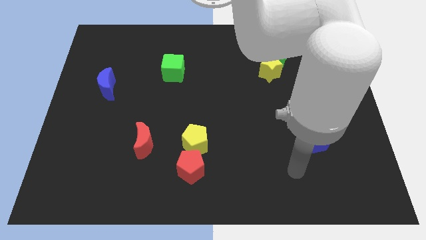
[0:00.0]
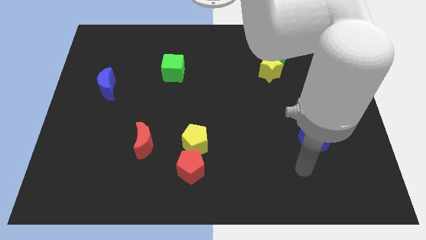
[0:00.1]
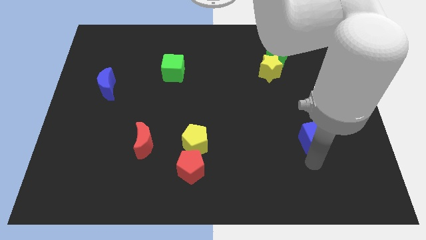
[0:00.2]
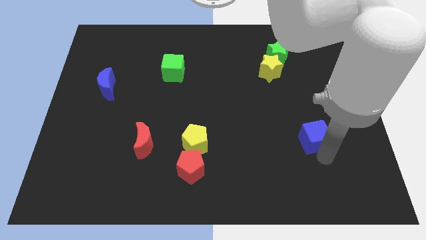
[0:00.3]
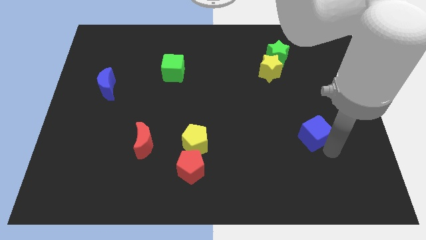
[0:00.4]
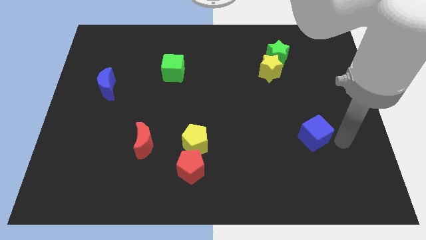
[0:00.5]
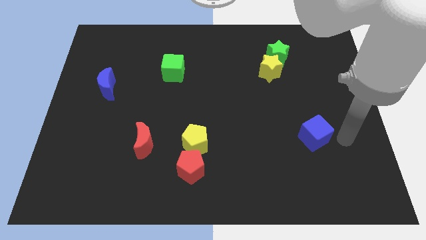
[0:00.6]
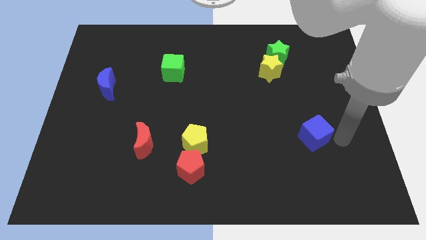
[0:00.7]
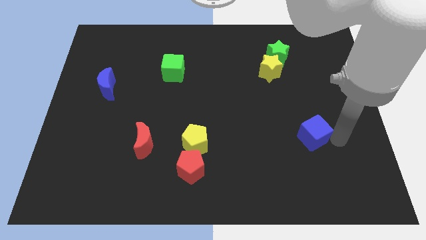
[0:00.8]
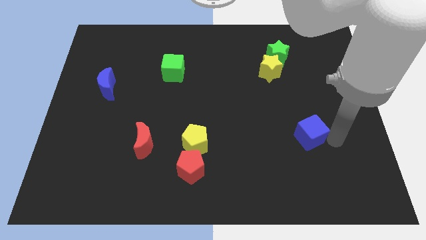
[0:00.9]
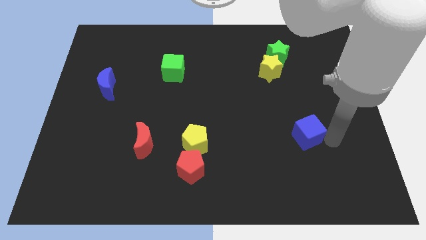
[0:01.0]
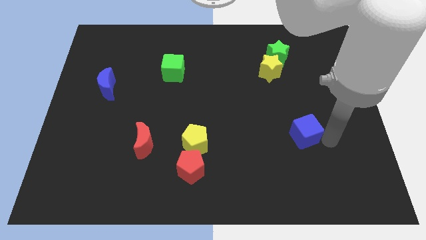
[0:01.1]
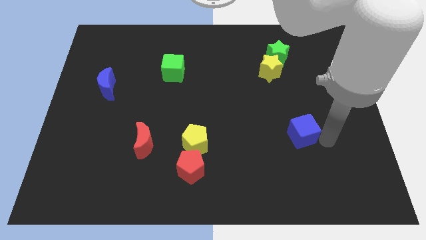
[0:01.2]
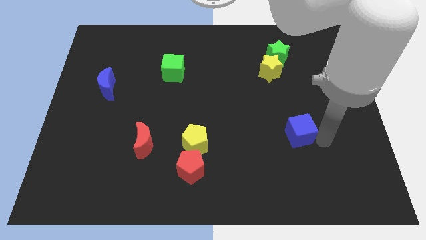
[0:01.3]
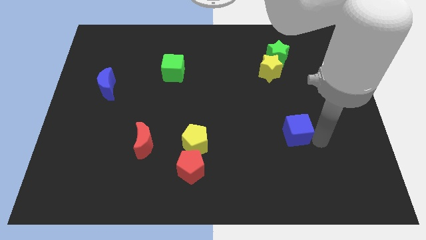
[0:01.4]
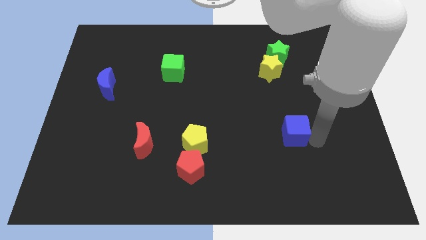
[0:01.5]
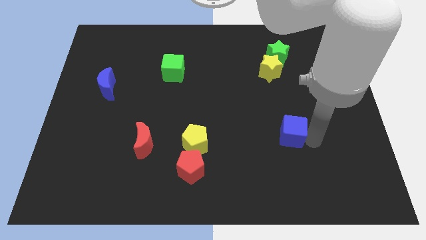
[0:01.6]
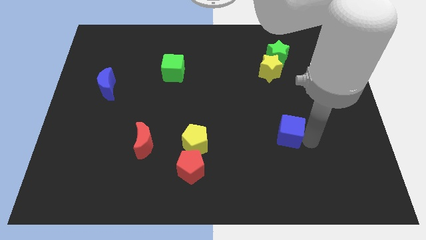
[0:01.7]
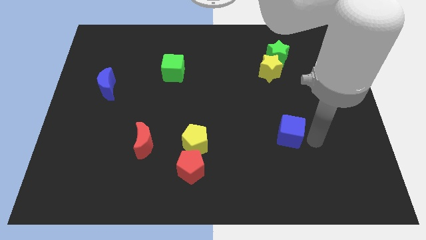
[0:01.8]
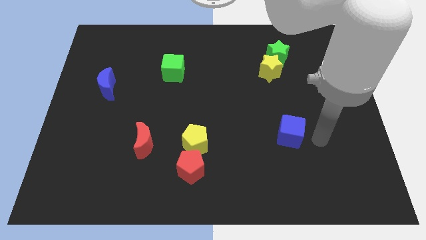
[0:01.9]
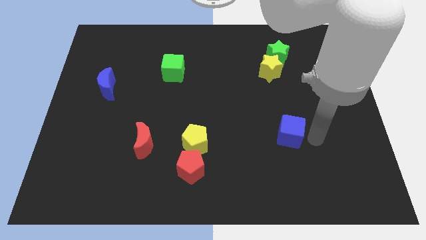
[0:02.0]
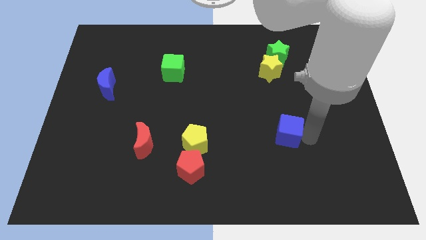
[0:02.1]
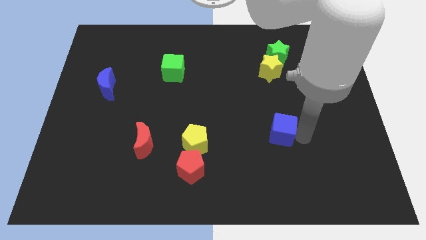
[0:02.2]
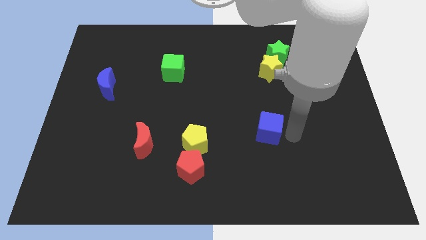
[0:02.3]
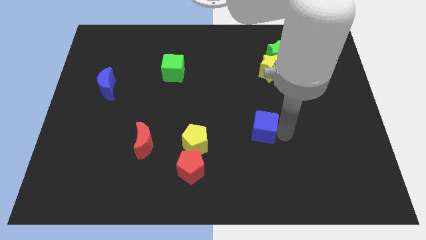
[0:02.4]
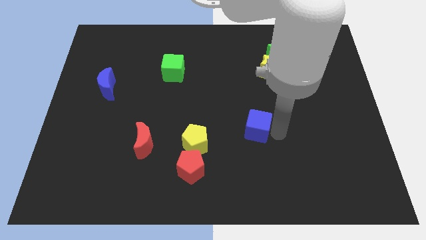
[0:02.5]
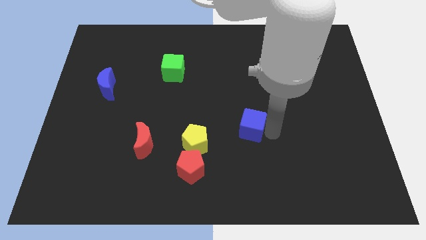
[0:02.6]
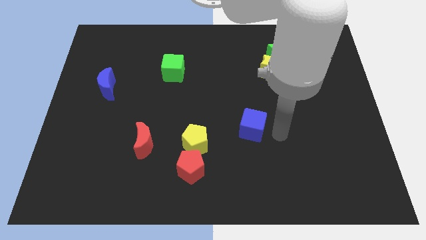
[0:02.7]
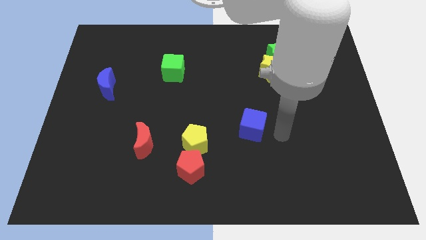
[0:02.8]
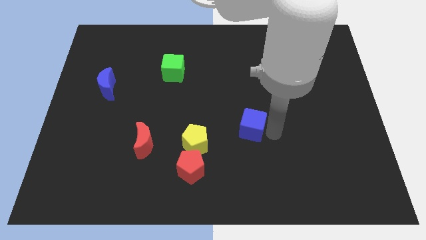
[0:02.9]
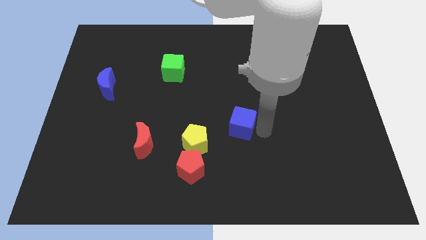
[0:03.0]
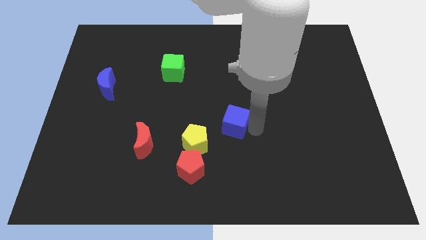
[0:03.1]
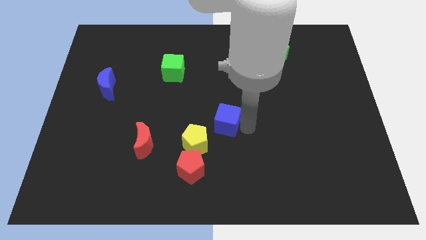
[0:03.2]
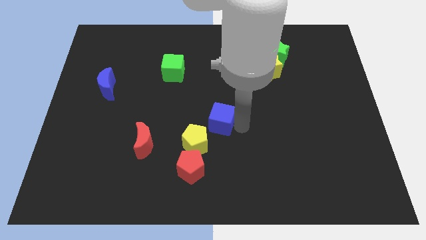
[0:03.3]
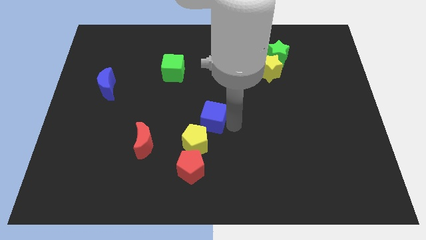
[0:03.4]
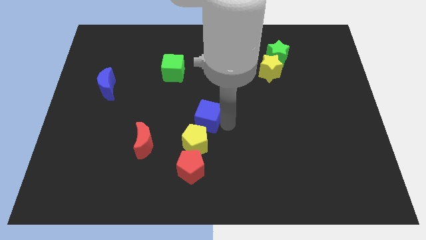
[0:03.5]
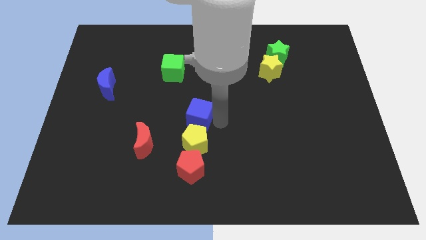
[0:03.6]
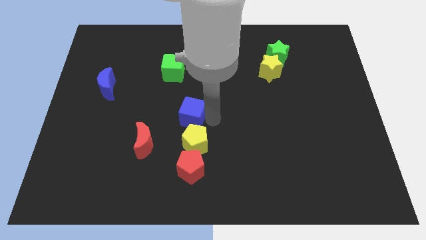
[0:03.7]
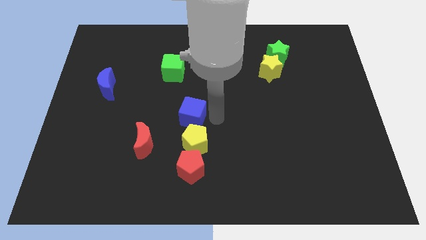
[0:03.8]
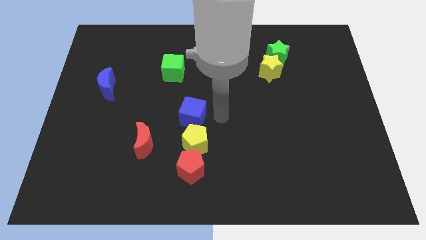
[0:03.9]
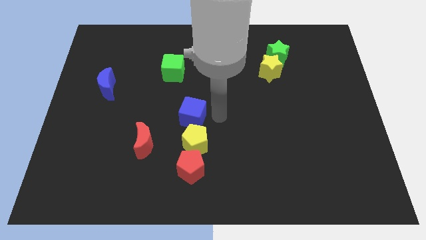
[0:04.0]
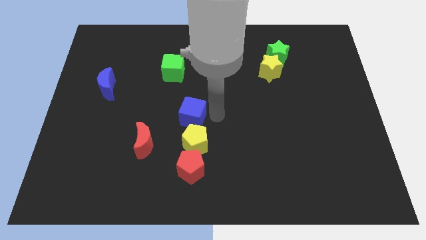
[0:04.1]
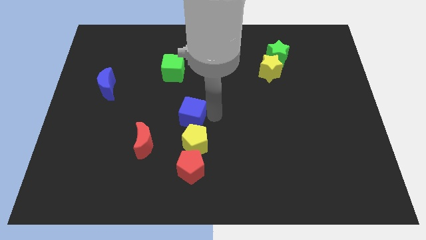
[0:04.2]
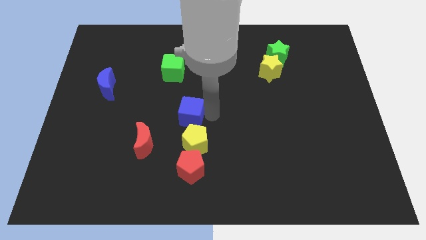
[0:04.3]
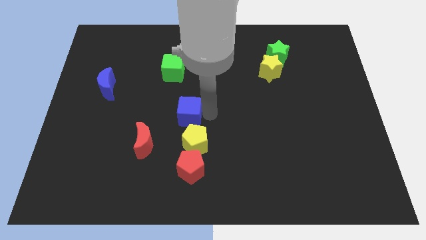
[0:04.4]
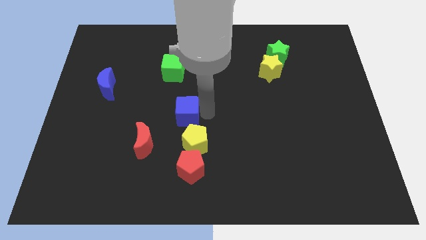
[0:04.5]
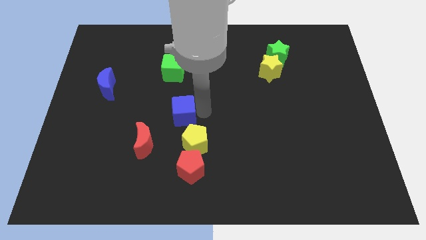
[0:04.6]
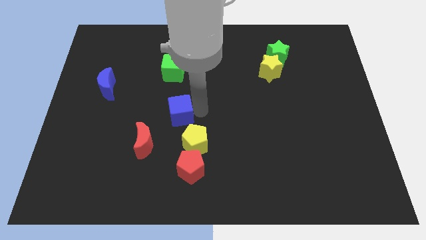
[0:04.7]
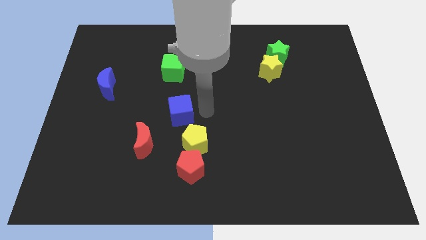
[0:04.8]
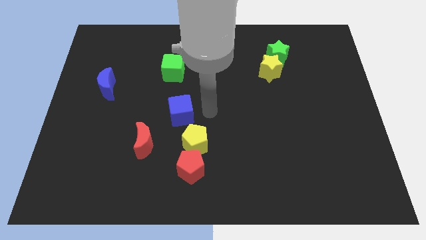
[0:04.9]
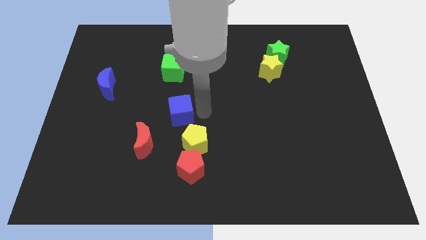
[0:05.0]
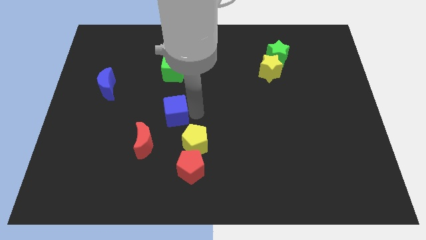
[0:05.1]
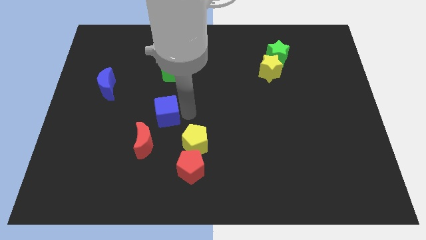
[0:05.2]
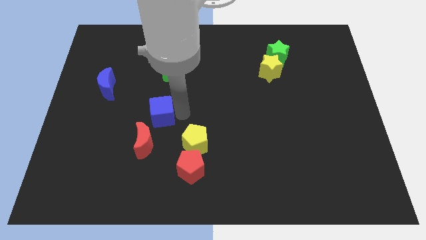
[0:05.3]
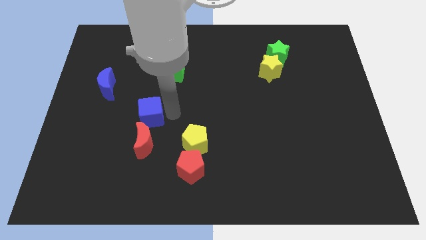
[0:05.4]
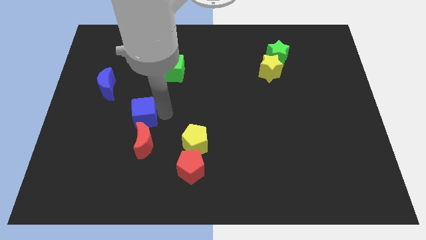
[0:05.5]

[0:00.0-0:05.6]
push the blue cube to the top left of the red moon

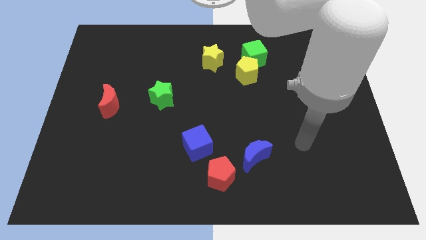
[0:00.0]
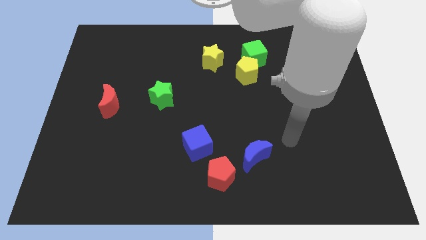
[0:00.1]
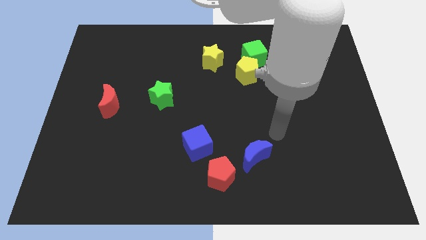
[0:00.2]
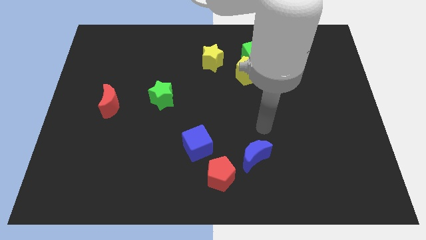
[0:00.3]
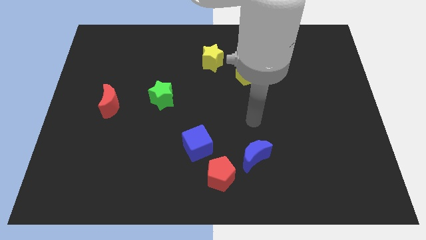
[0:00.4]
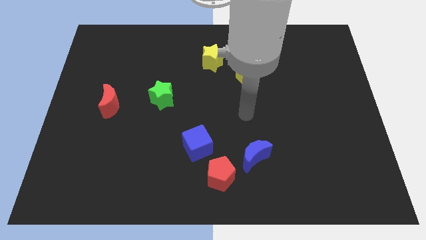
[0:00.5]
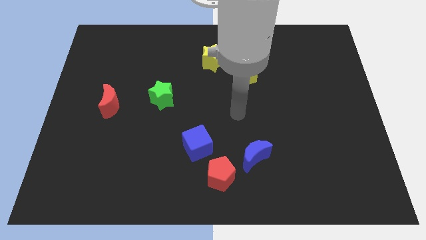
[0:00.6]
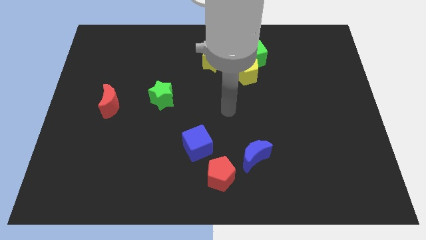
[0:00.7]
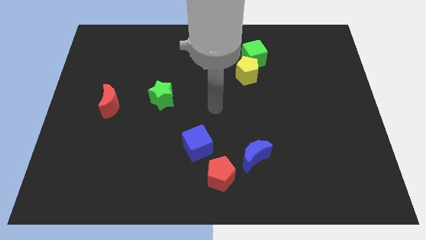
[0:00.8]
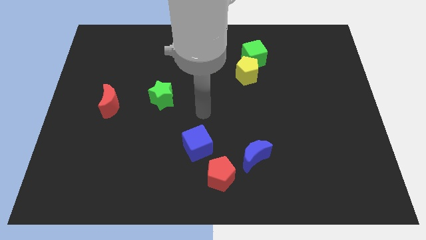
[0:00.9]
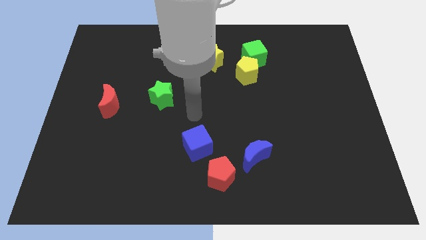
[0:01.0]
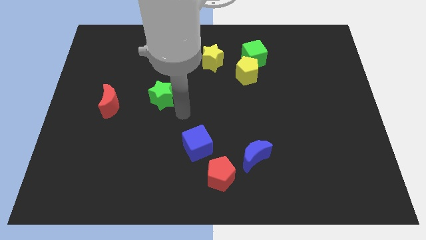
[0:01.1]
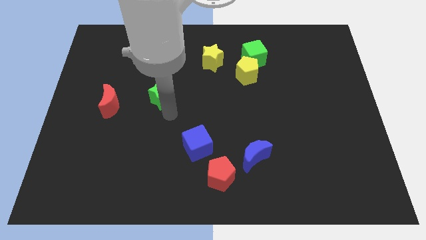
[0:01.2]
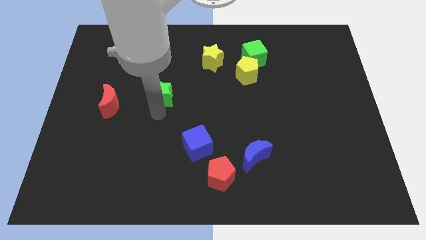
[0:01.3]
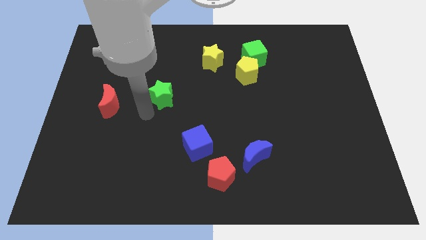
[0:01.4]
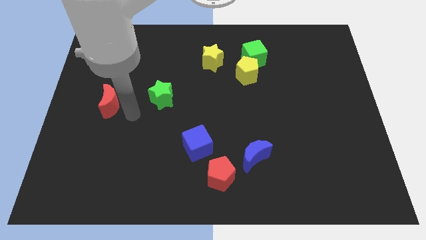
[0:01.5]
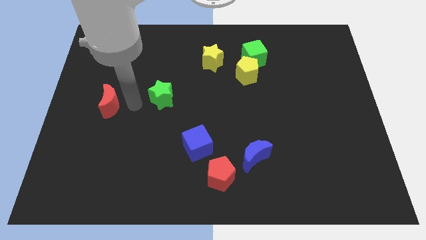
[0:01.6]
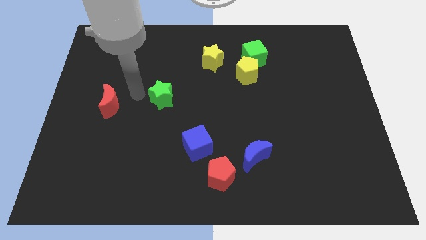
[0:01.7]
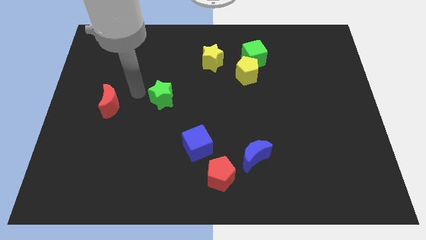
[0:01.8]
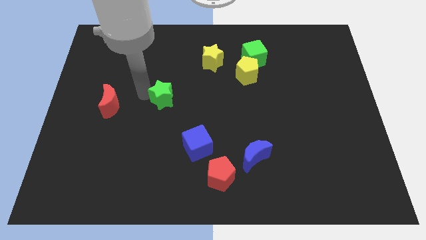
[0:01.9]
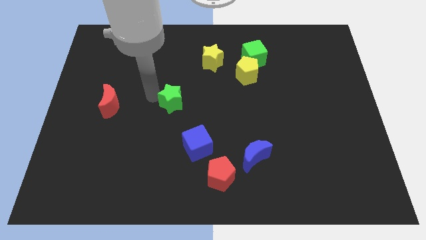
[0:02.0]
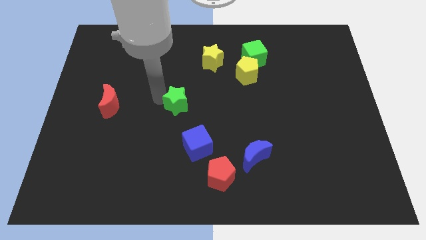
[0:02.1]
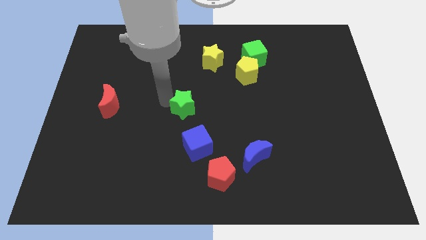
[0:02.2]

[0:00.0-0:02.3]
push the green star to the top of the blue cube
